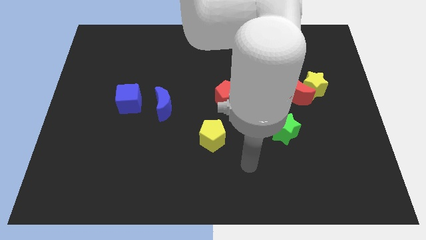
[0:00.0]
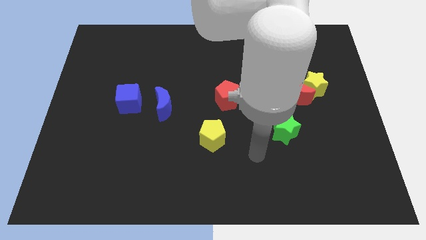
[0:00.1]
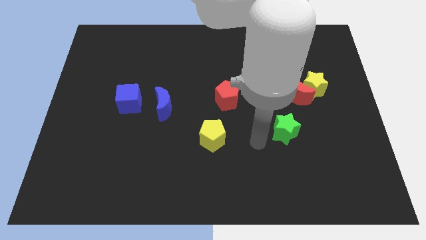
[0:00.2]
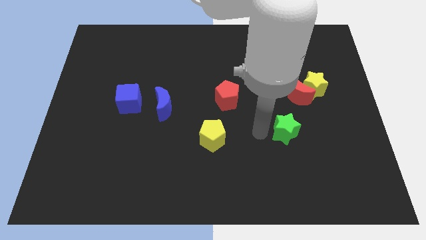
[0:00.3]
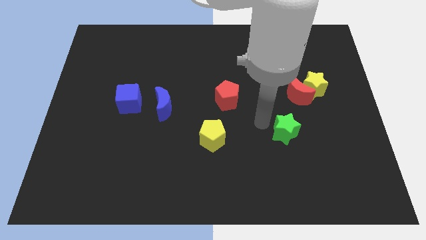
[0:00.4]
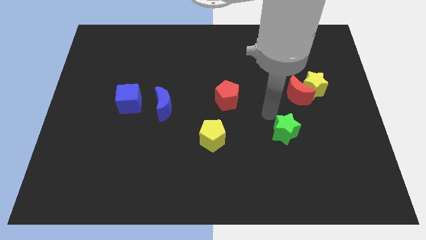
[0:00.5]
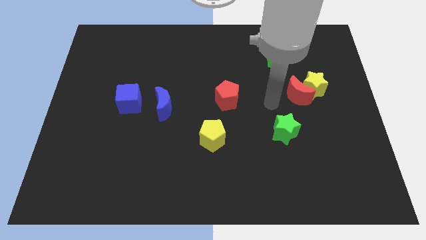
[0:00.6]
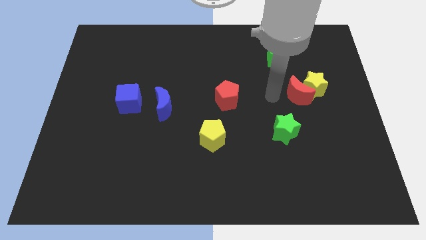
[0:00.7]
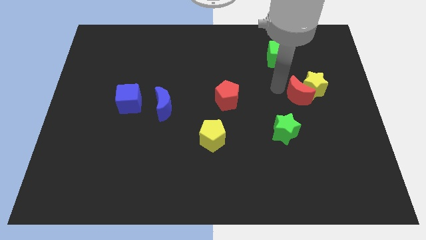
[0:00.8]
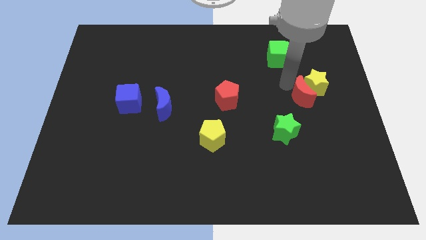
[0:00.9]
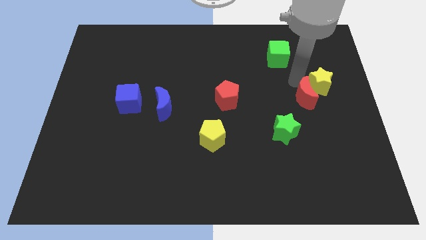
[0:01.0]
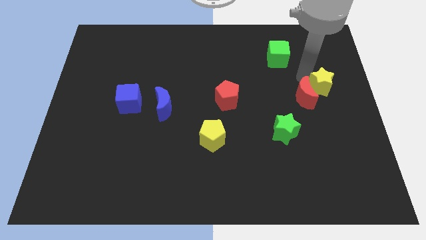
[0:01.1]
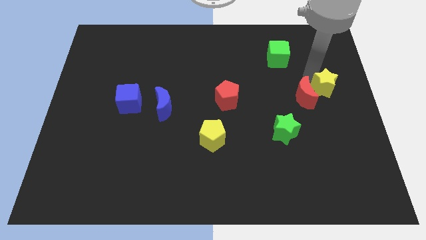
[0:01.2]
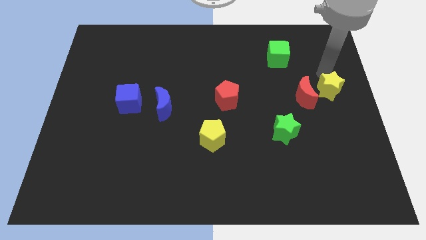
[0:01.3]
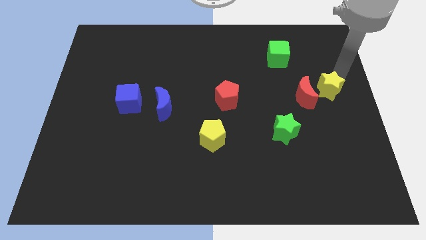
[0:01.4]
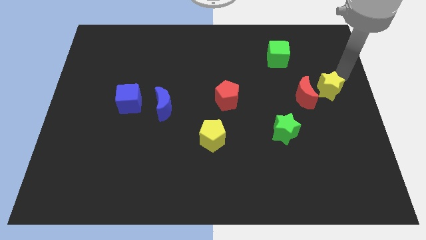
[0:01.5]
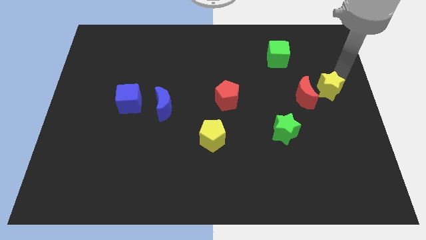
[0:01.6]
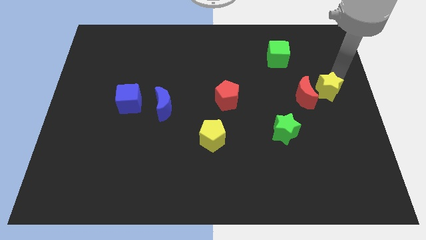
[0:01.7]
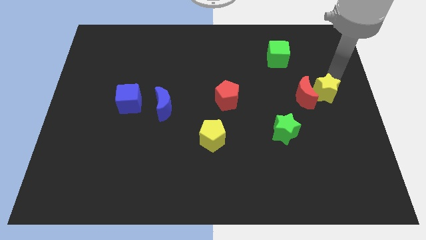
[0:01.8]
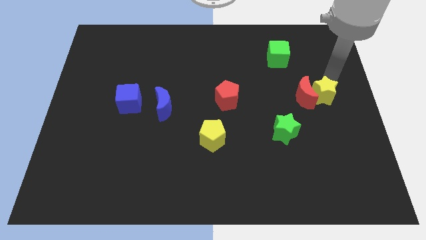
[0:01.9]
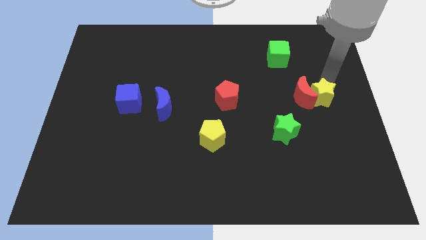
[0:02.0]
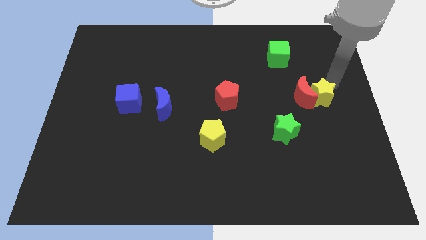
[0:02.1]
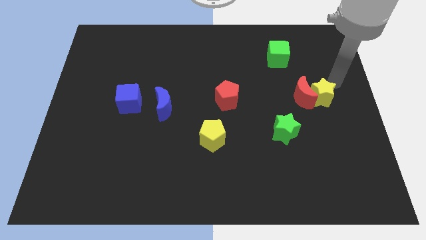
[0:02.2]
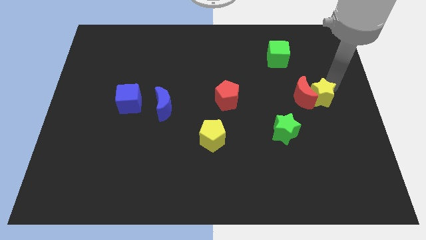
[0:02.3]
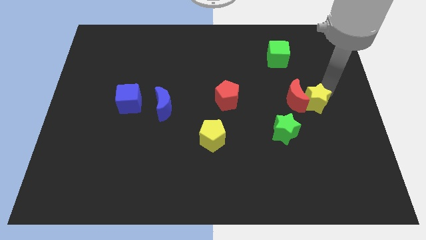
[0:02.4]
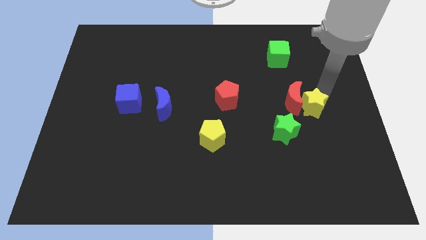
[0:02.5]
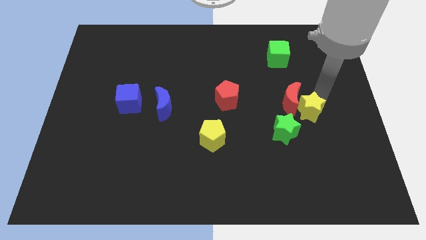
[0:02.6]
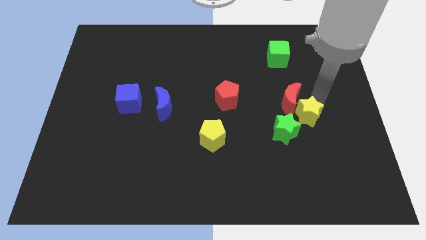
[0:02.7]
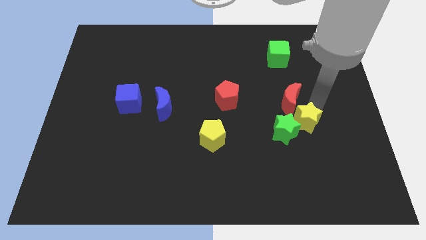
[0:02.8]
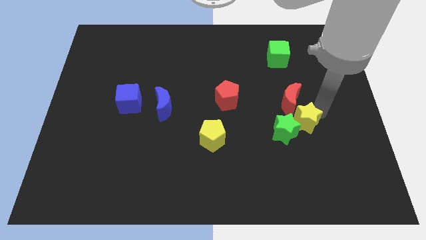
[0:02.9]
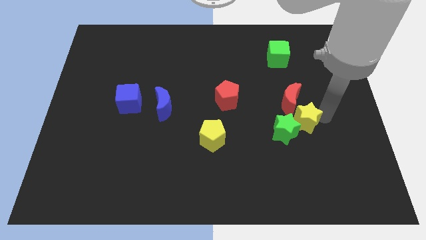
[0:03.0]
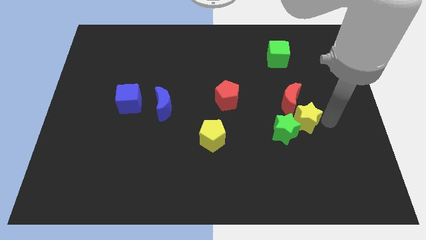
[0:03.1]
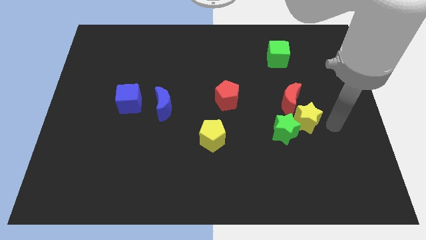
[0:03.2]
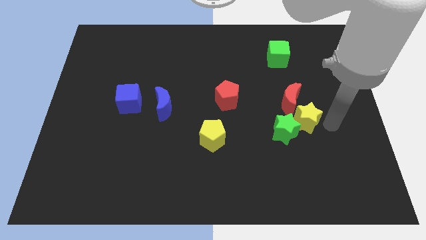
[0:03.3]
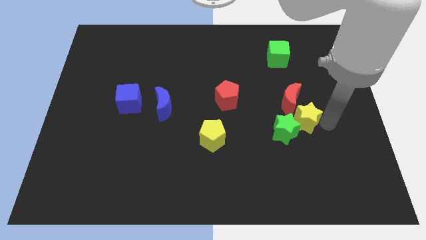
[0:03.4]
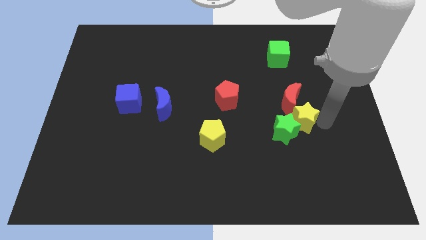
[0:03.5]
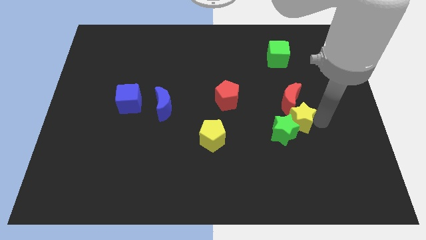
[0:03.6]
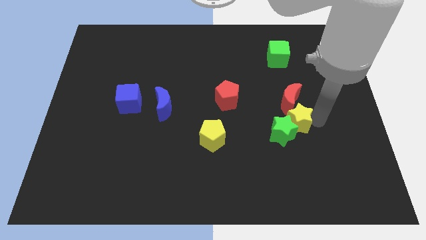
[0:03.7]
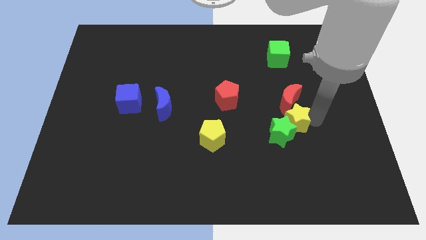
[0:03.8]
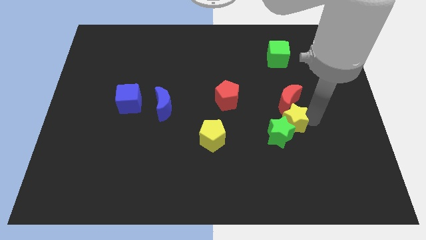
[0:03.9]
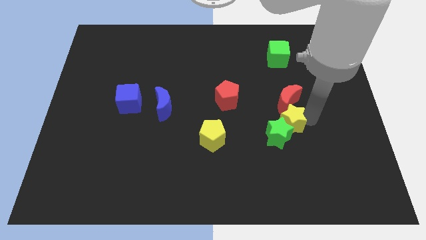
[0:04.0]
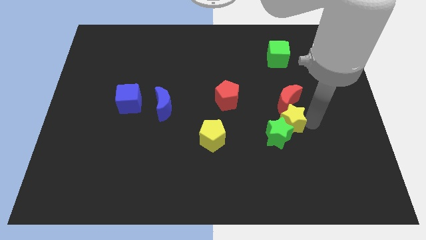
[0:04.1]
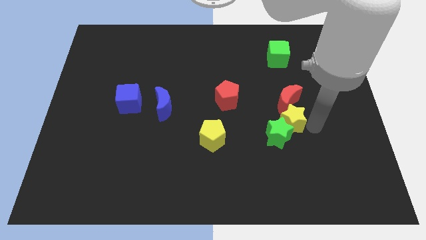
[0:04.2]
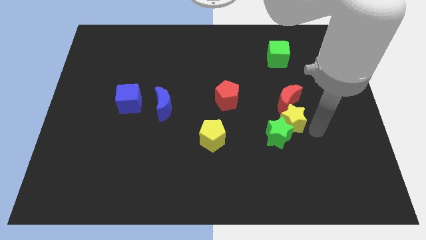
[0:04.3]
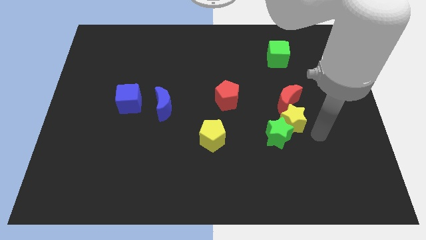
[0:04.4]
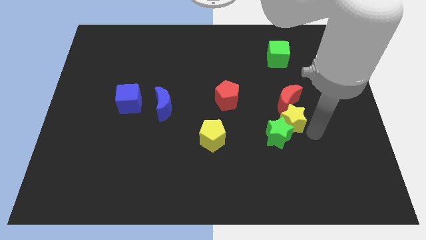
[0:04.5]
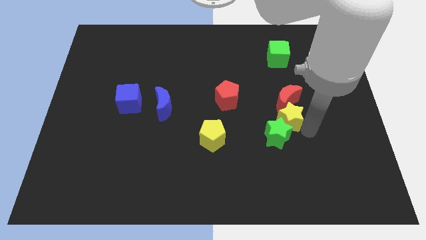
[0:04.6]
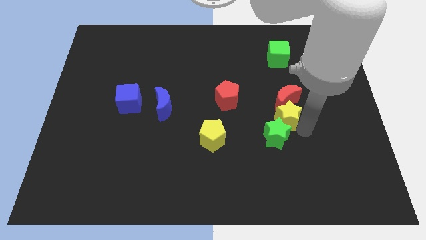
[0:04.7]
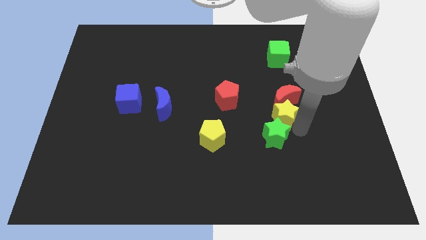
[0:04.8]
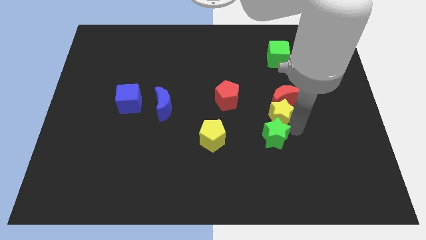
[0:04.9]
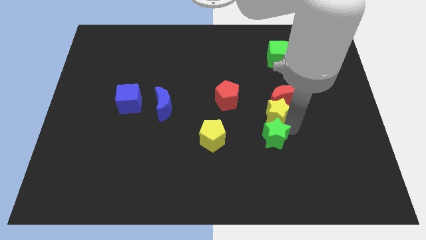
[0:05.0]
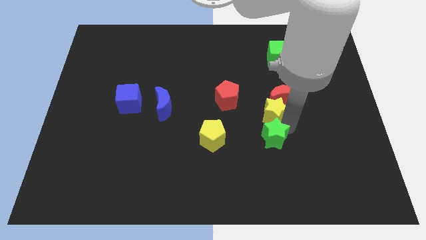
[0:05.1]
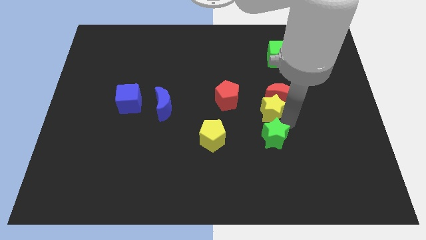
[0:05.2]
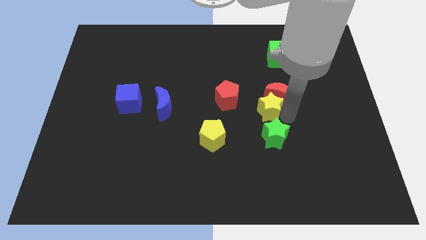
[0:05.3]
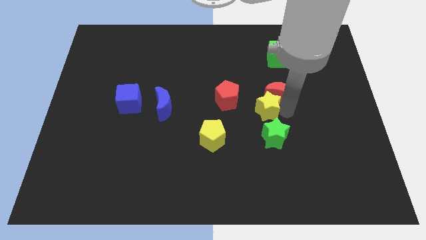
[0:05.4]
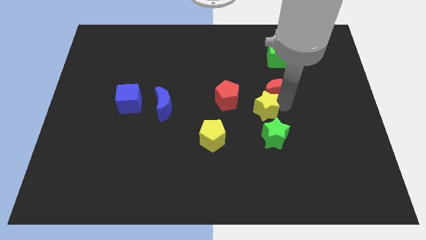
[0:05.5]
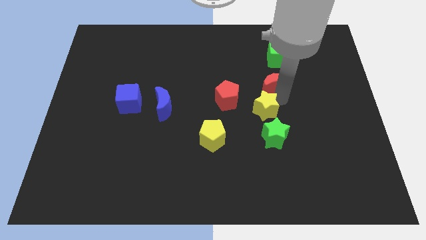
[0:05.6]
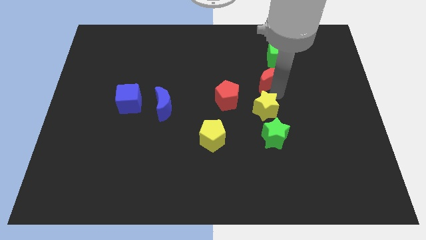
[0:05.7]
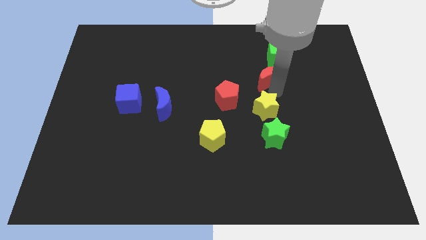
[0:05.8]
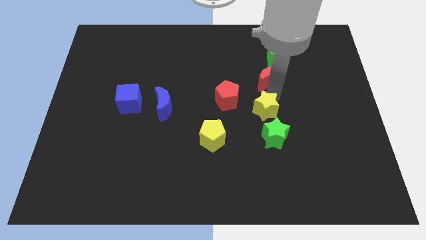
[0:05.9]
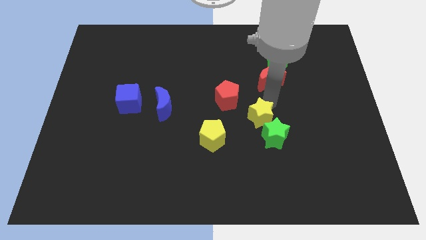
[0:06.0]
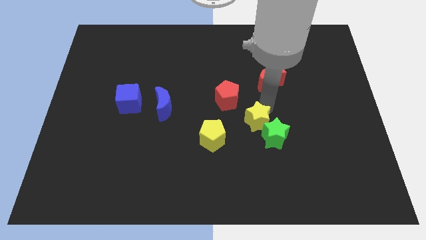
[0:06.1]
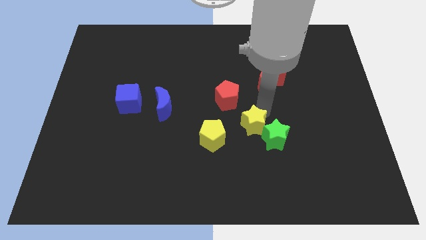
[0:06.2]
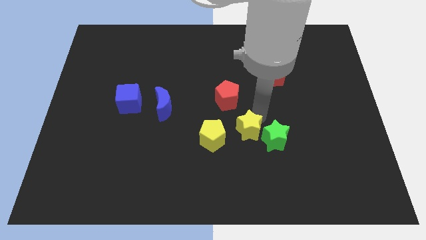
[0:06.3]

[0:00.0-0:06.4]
move the yellow star downwards and then left

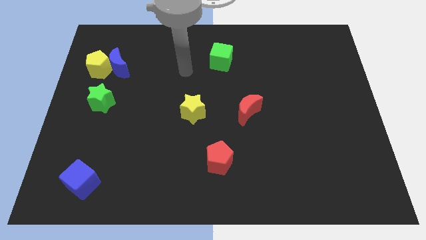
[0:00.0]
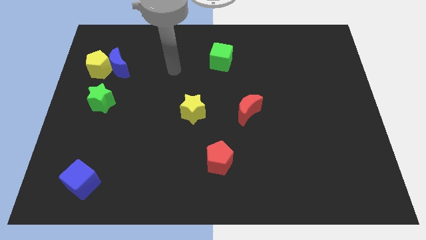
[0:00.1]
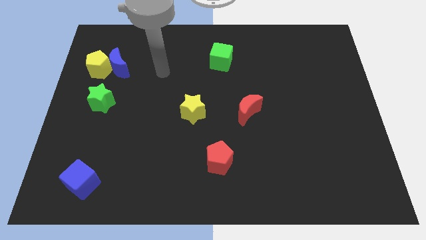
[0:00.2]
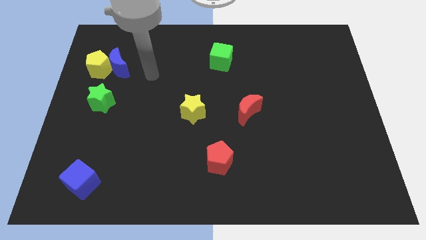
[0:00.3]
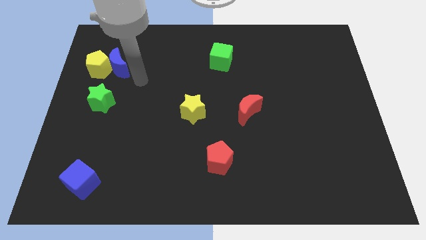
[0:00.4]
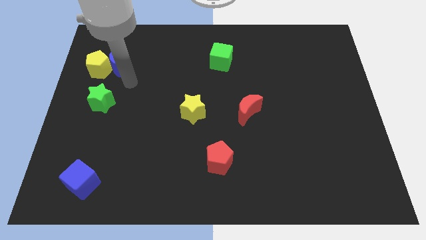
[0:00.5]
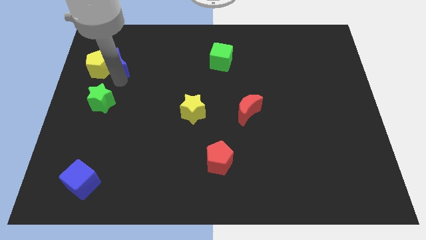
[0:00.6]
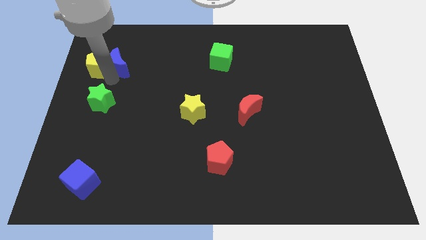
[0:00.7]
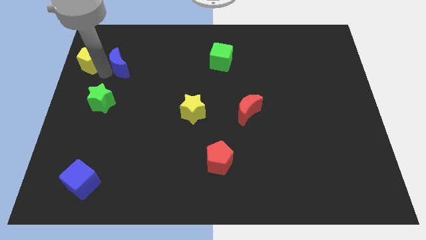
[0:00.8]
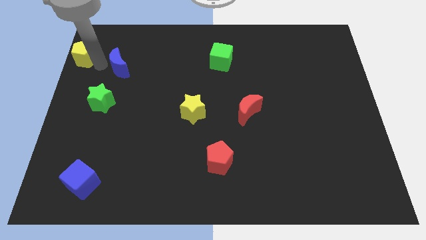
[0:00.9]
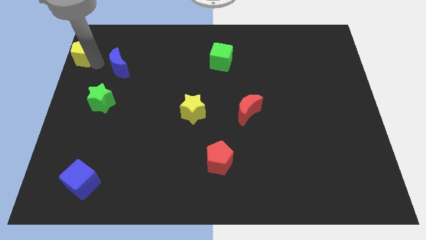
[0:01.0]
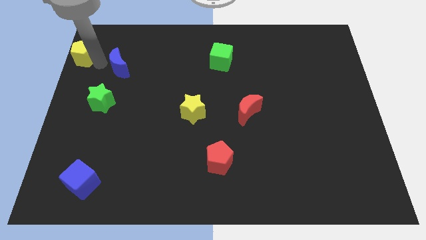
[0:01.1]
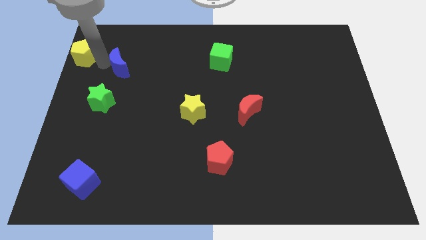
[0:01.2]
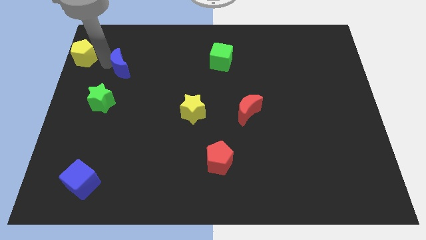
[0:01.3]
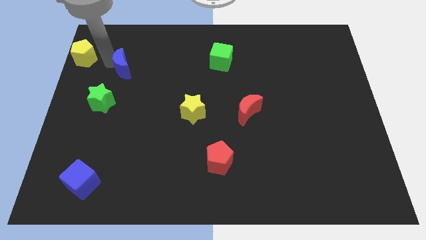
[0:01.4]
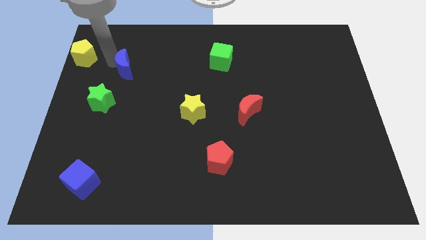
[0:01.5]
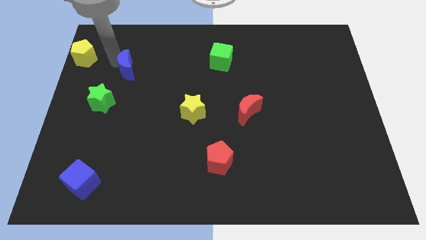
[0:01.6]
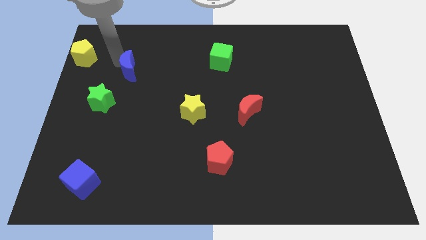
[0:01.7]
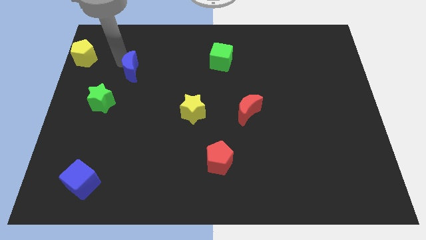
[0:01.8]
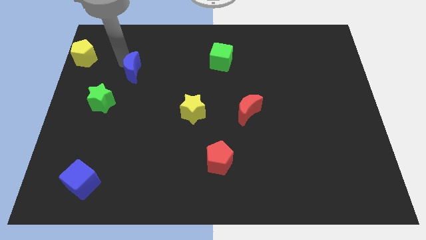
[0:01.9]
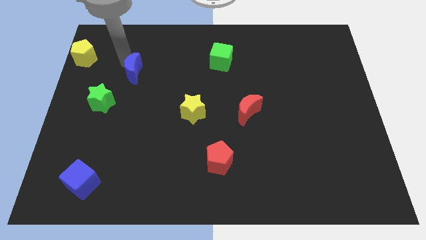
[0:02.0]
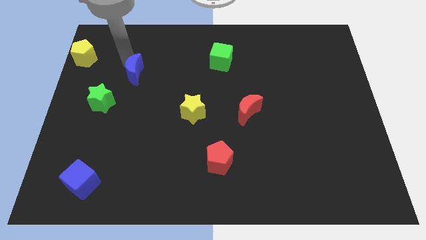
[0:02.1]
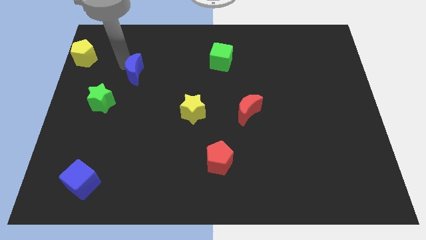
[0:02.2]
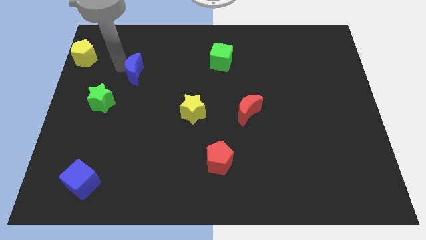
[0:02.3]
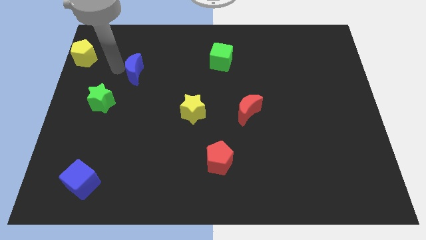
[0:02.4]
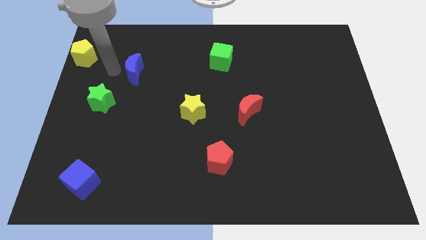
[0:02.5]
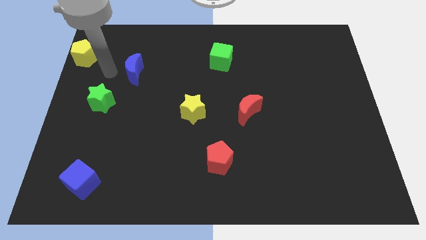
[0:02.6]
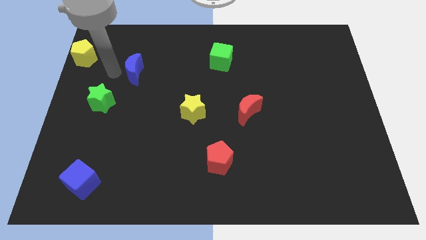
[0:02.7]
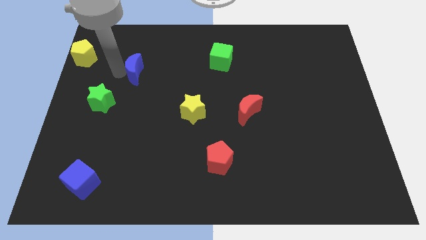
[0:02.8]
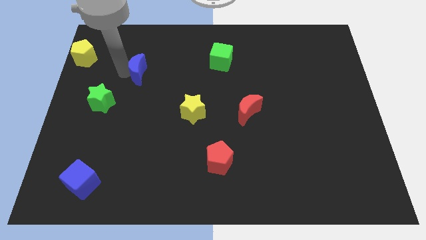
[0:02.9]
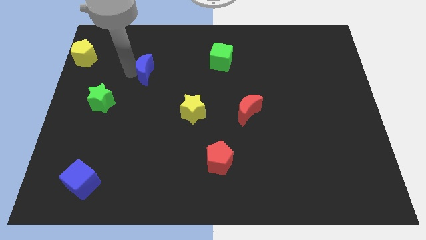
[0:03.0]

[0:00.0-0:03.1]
slightly slide the blue moon to the right
